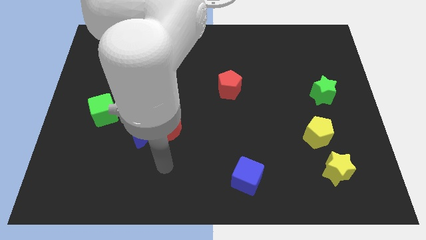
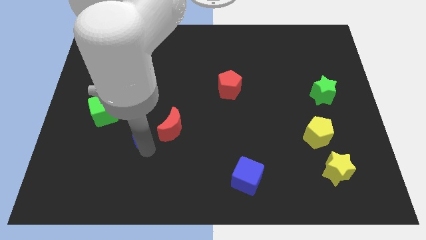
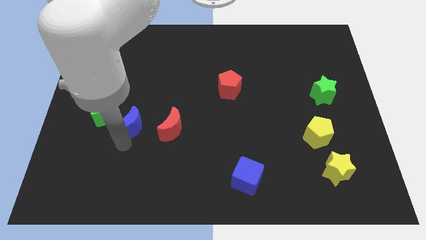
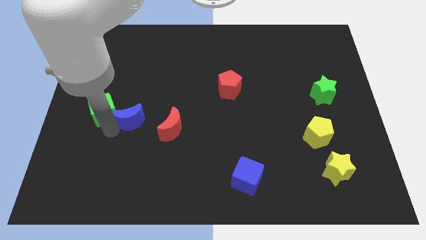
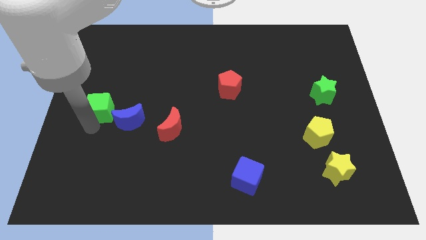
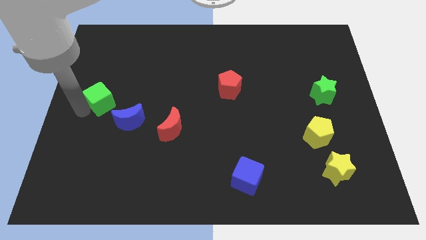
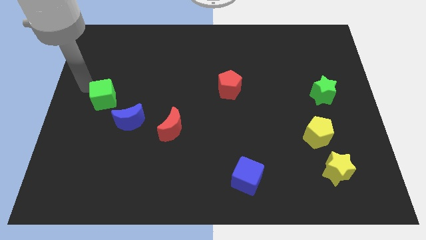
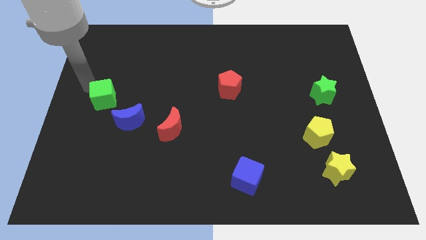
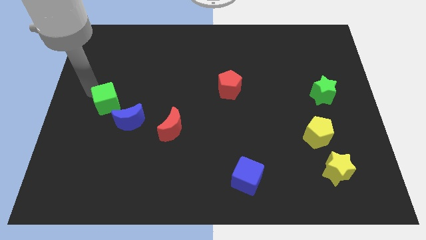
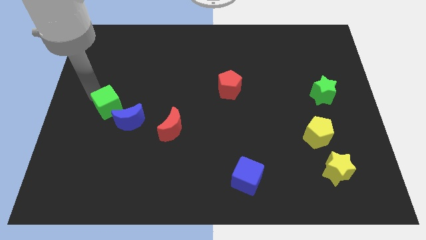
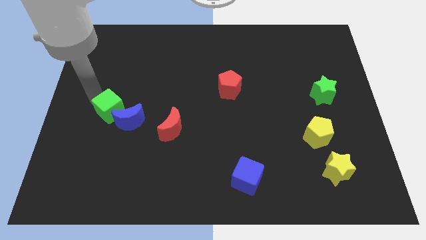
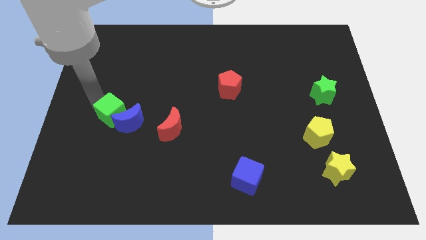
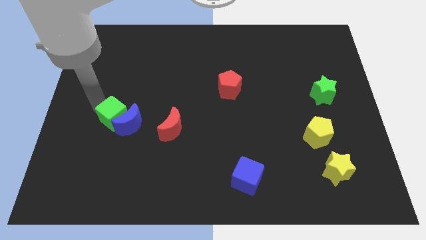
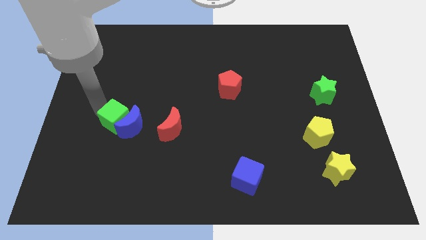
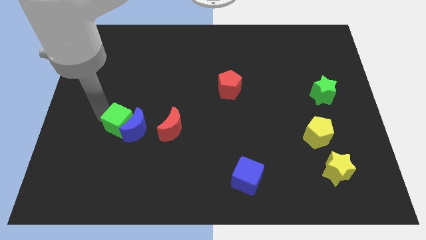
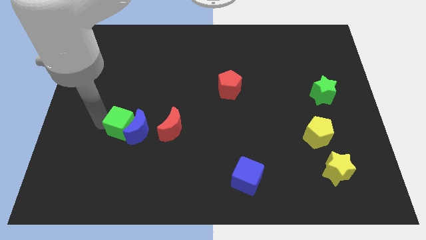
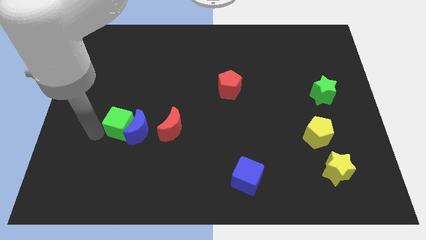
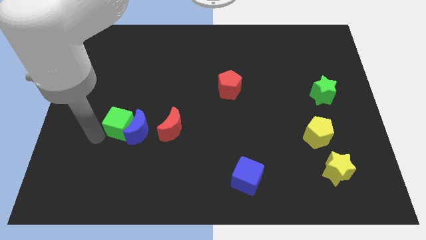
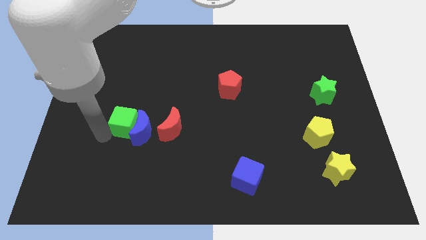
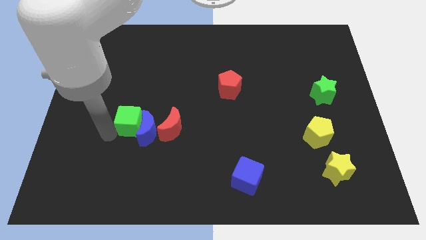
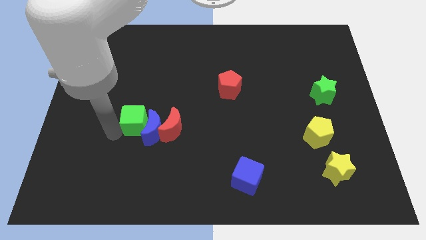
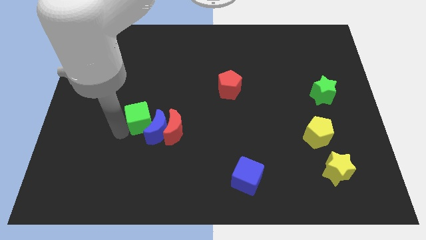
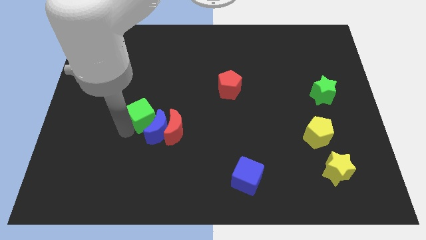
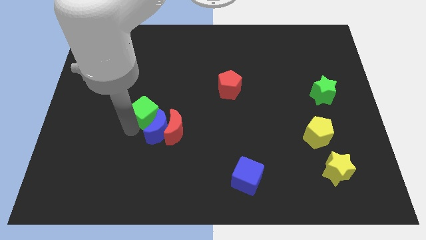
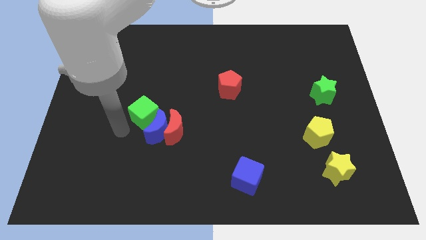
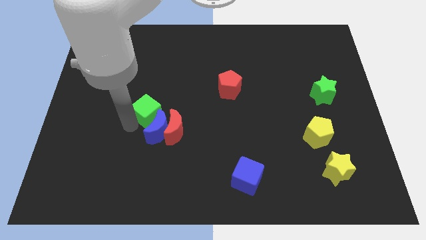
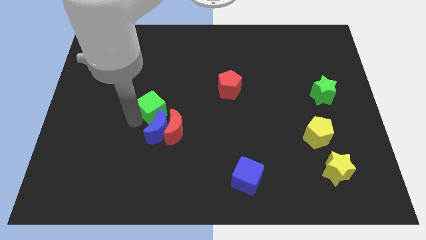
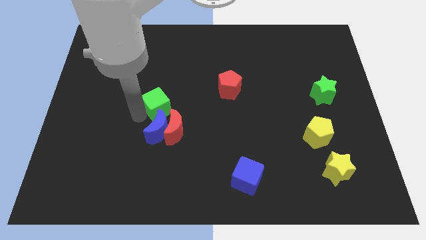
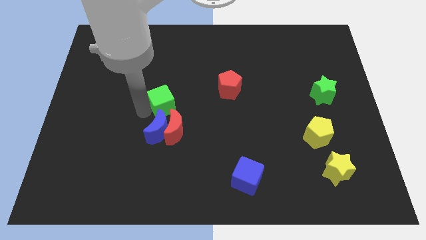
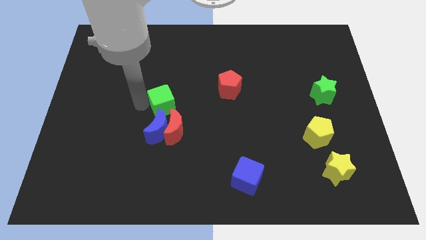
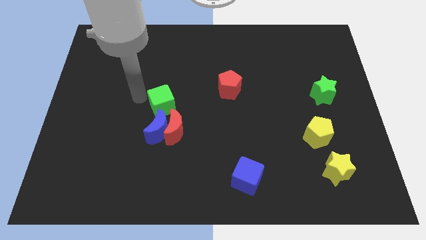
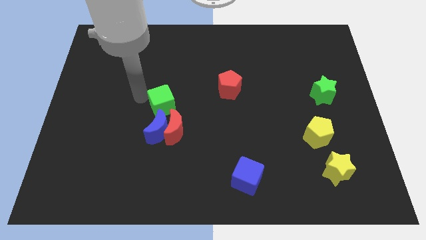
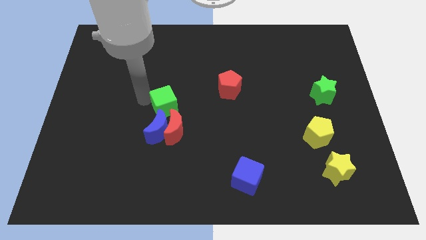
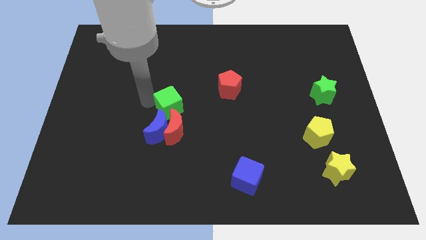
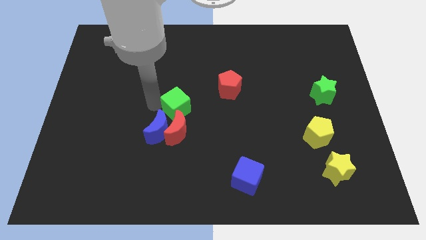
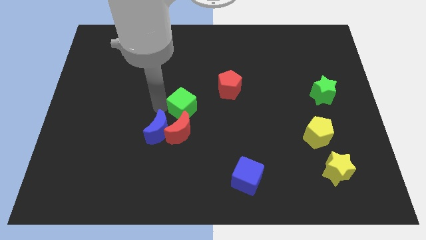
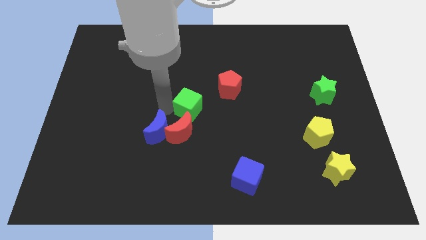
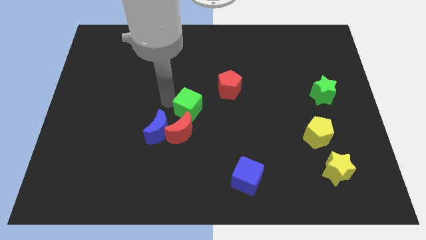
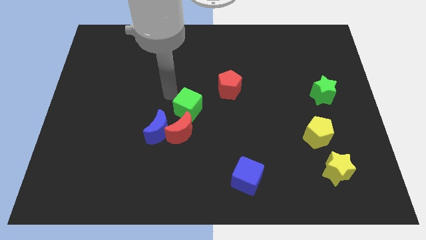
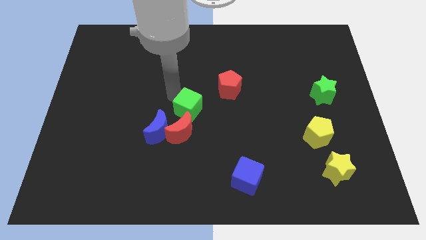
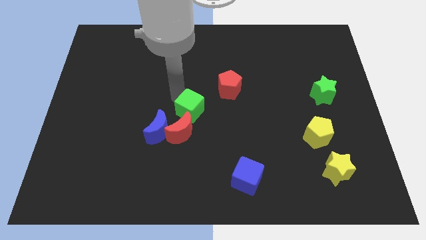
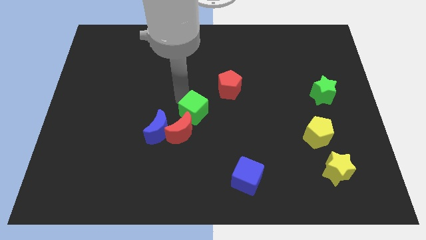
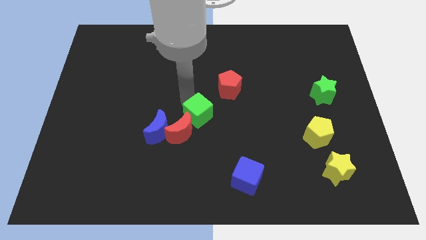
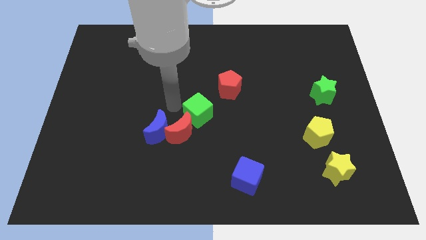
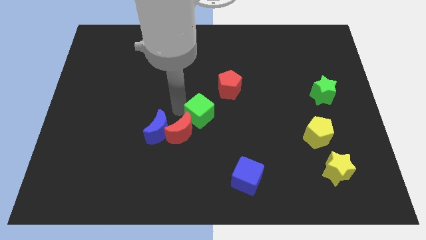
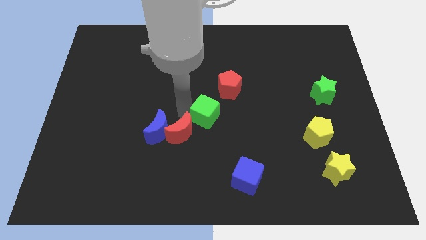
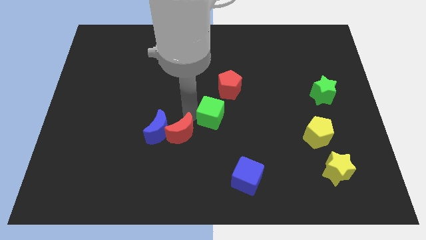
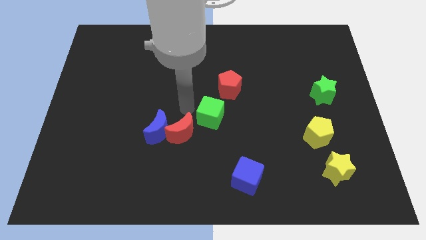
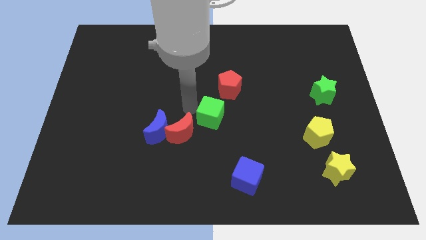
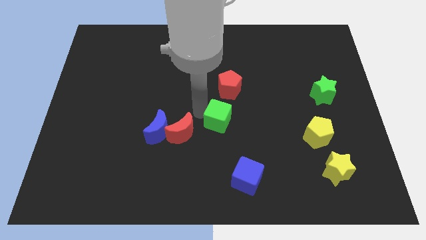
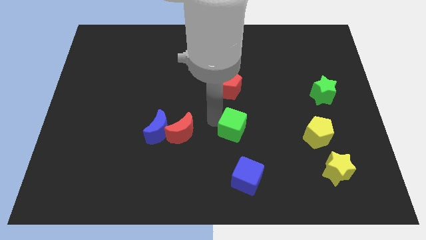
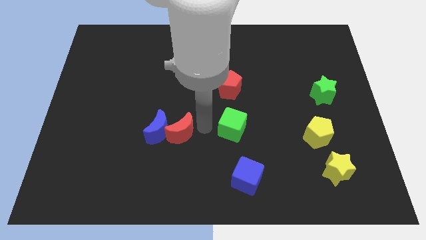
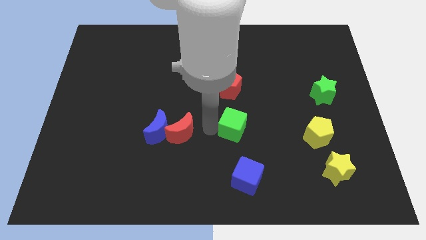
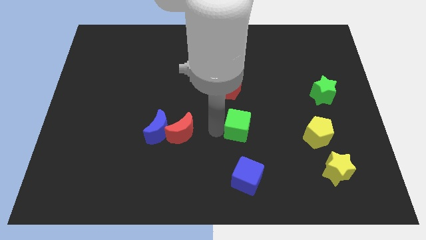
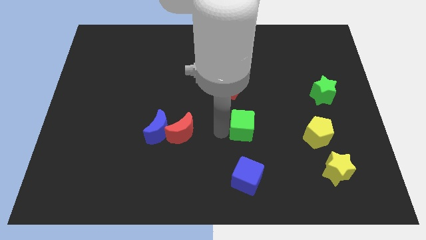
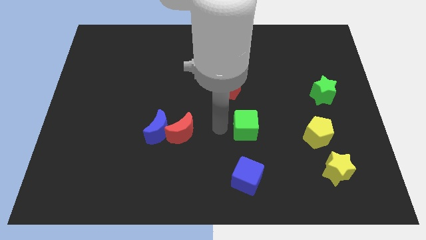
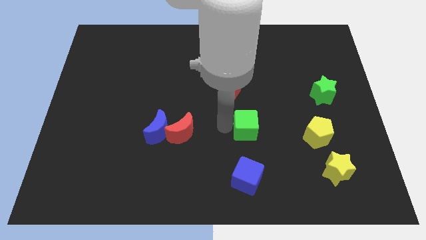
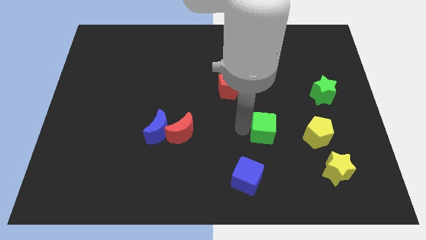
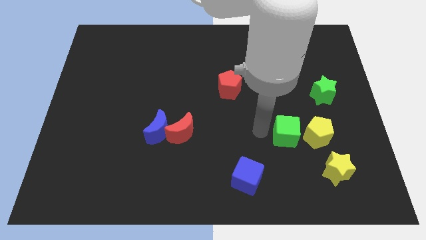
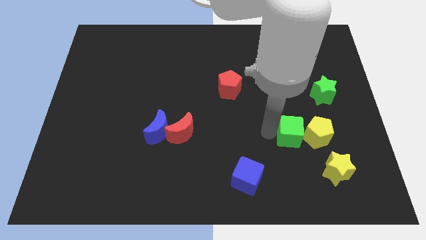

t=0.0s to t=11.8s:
push the green cube towards the yellow pentagon

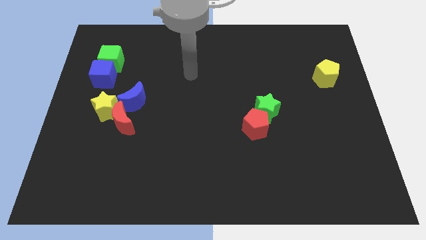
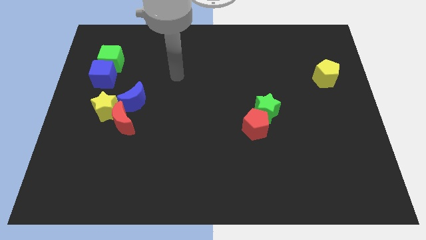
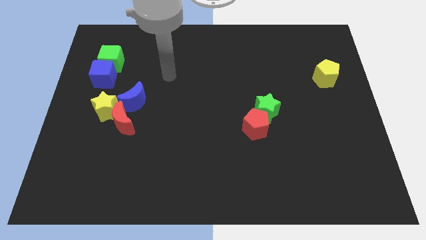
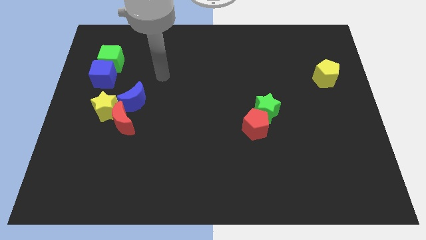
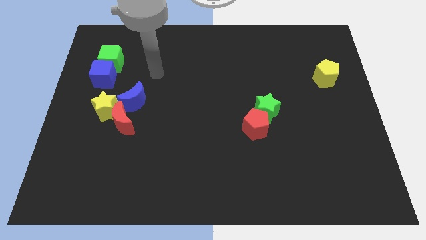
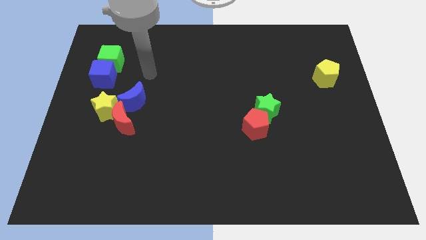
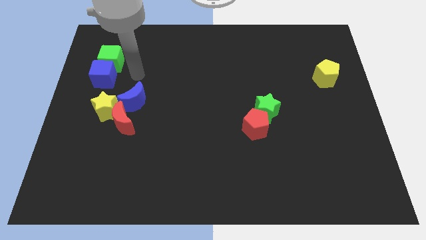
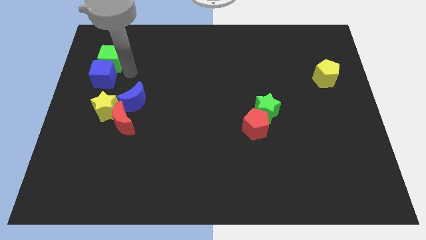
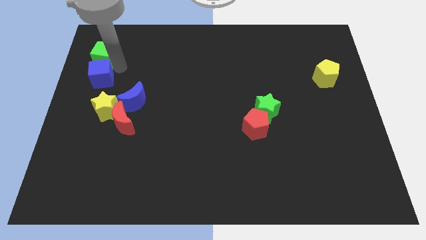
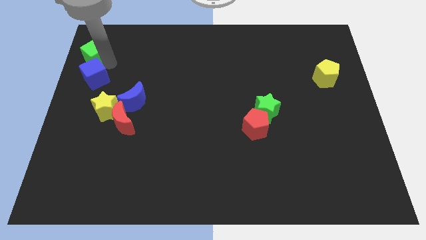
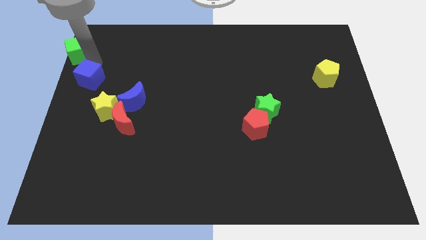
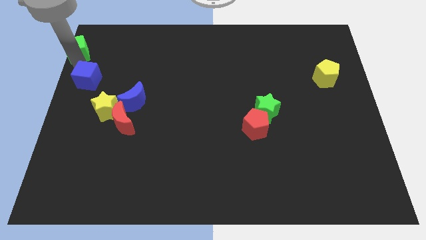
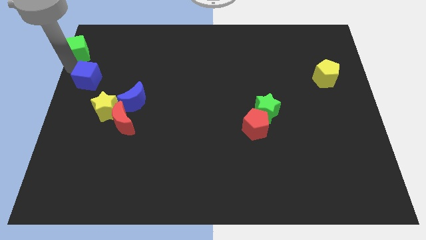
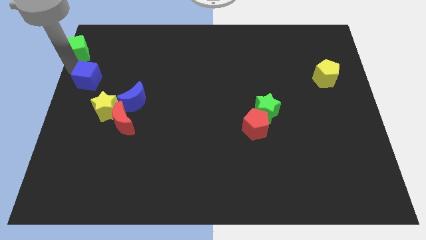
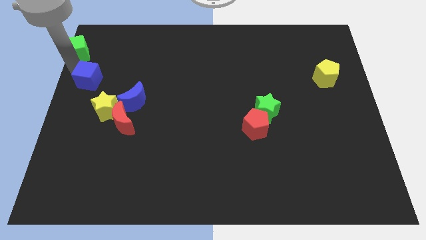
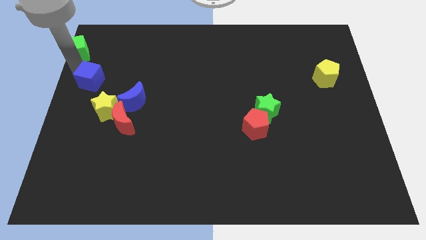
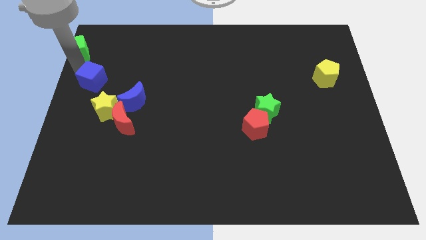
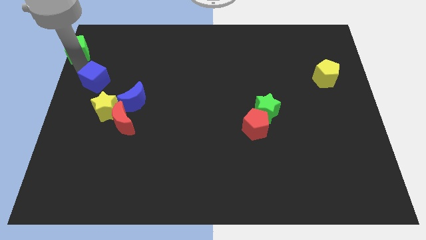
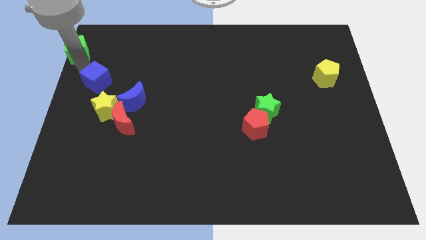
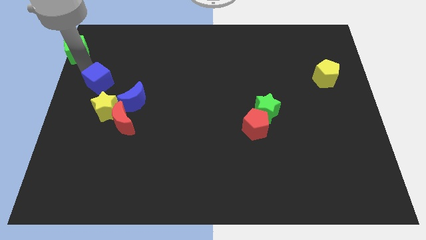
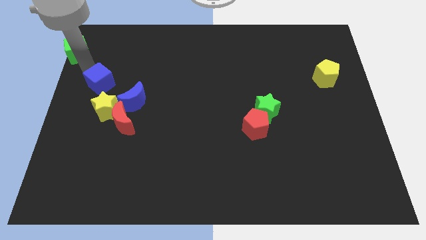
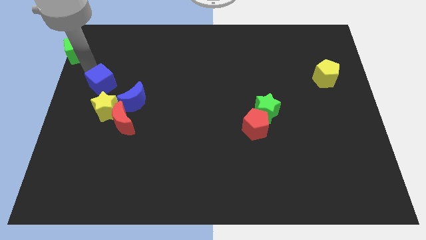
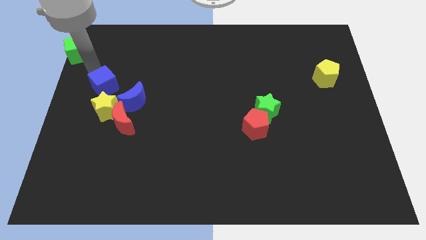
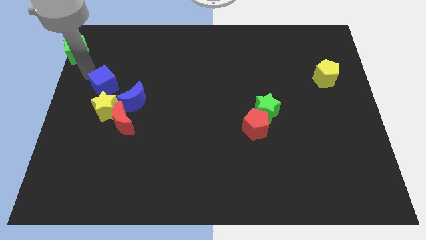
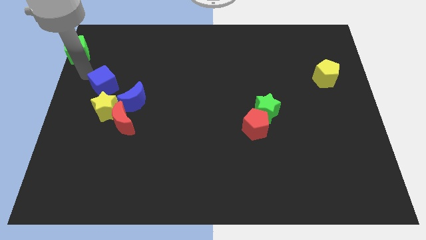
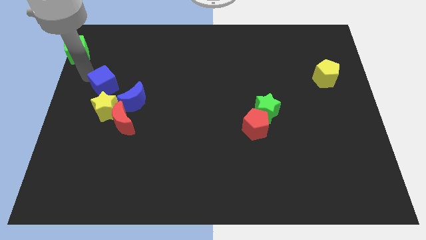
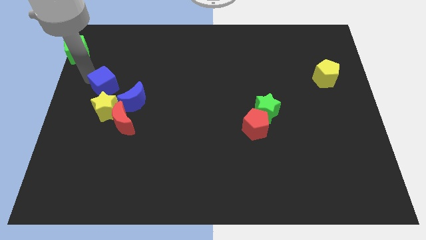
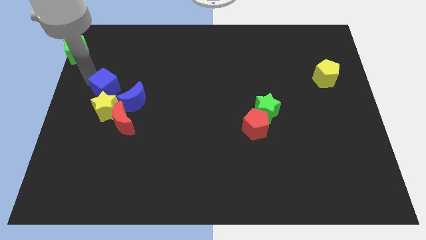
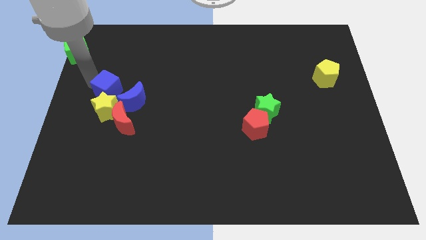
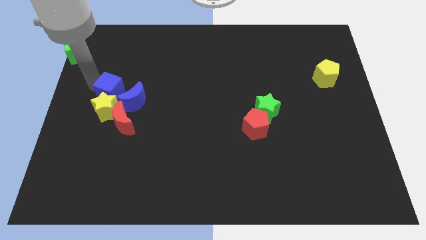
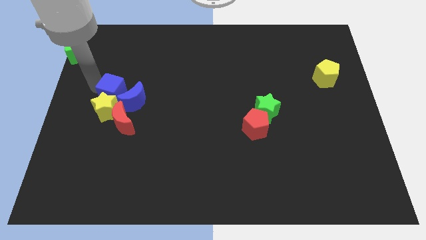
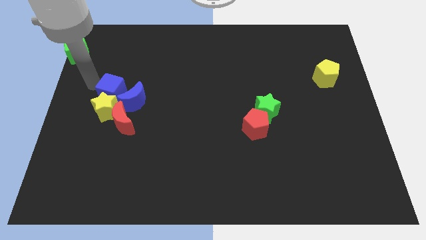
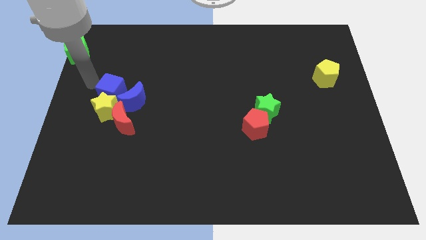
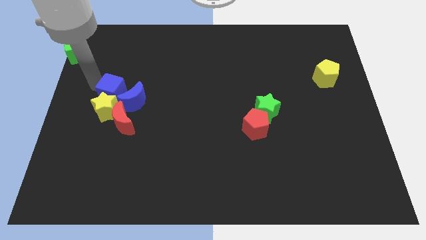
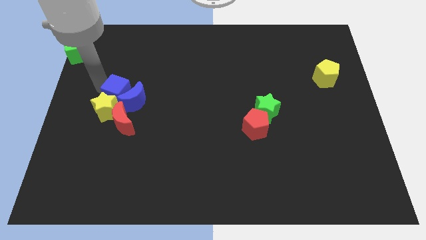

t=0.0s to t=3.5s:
move the blue cube next to the blue moon
